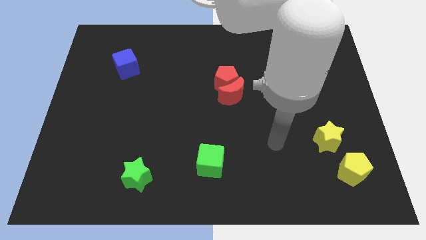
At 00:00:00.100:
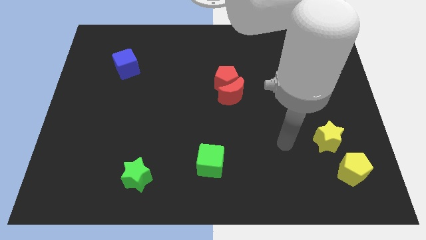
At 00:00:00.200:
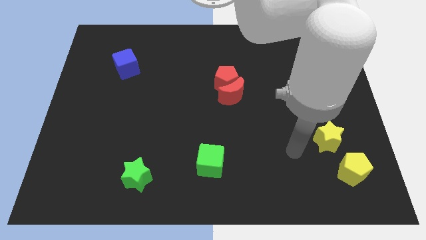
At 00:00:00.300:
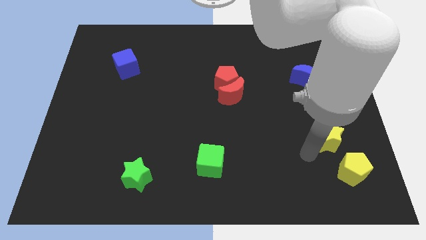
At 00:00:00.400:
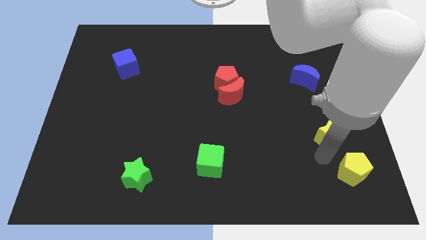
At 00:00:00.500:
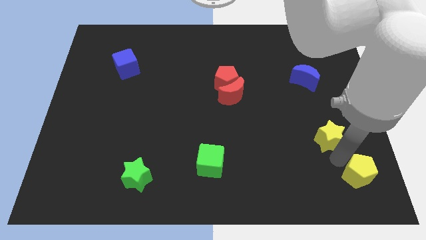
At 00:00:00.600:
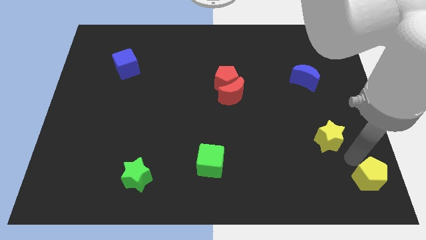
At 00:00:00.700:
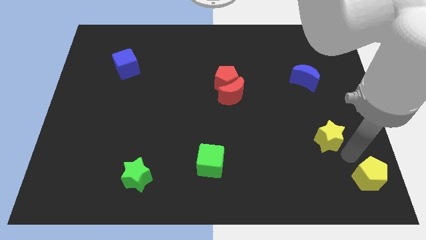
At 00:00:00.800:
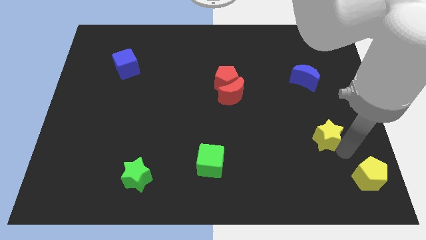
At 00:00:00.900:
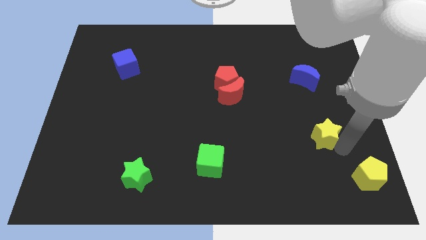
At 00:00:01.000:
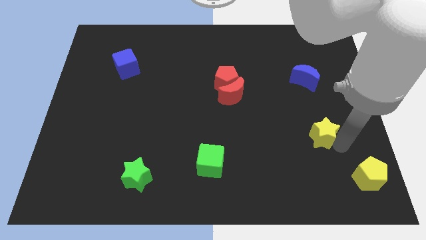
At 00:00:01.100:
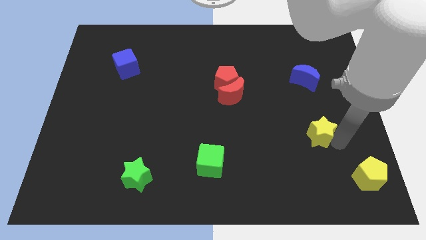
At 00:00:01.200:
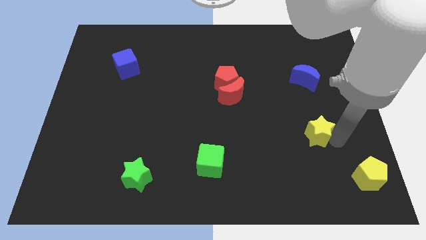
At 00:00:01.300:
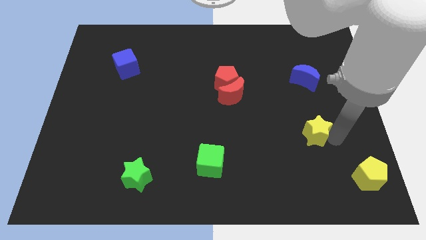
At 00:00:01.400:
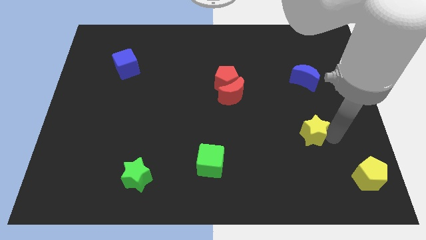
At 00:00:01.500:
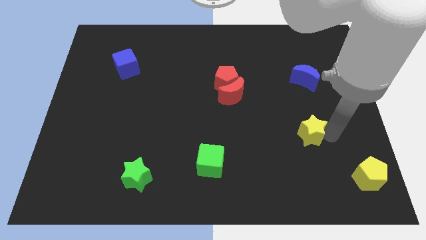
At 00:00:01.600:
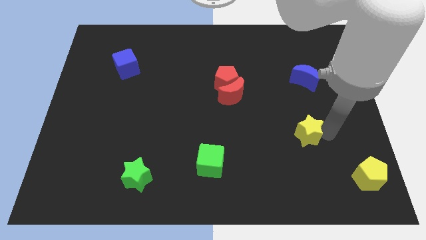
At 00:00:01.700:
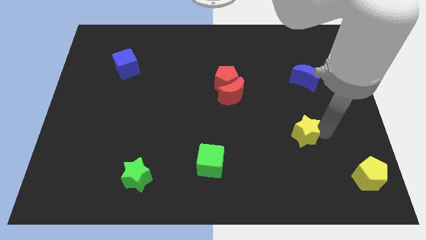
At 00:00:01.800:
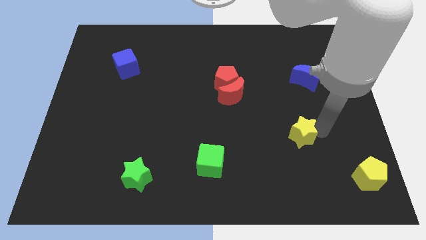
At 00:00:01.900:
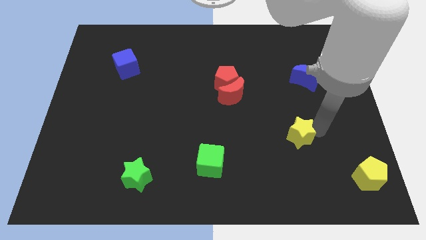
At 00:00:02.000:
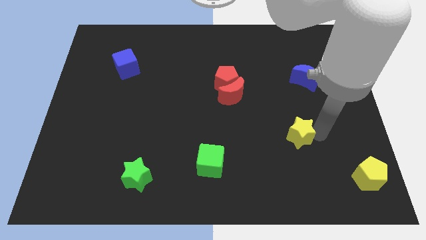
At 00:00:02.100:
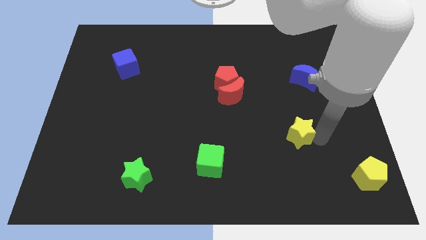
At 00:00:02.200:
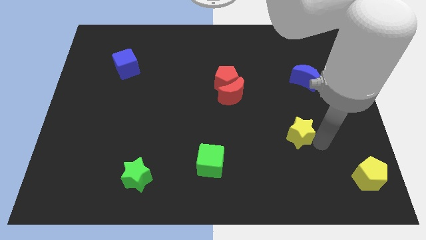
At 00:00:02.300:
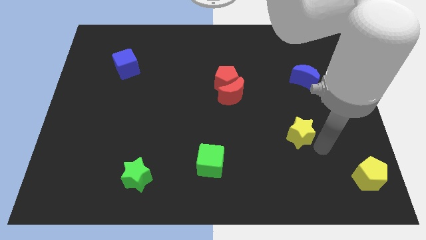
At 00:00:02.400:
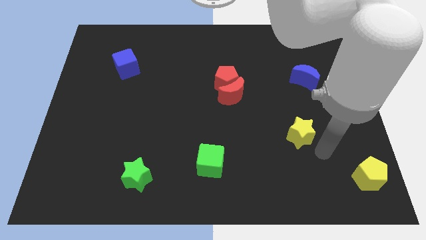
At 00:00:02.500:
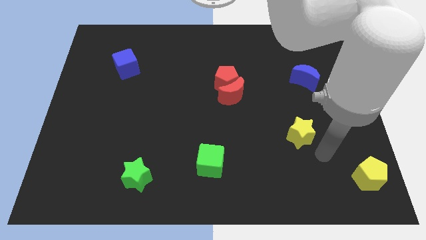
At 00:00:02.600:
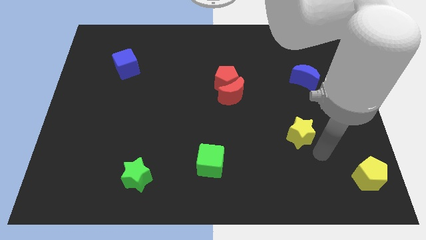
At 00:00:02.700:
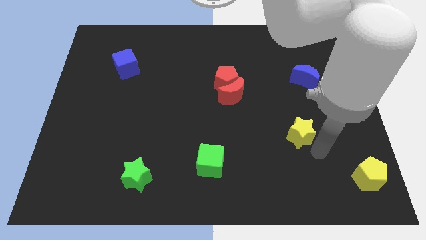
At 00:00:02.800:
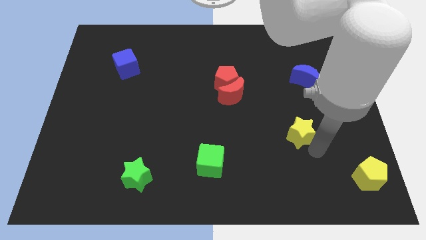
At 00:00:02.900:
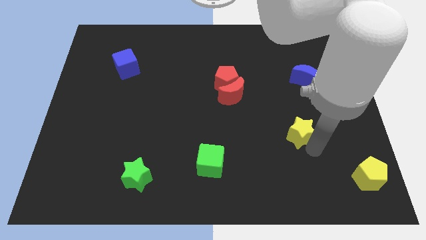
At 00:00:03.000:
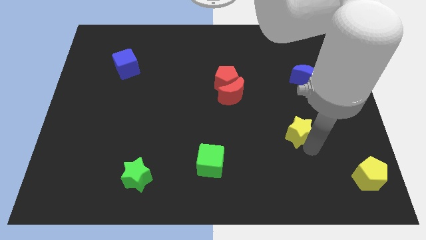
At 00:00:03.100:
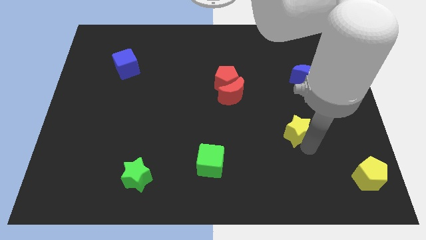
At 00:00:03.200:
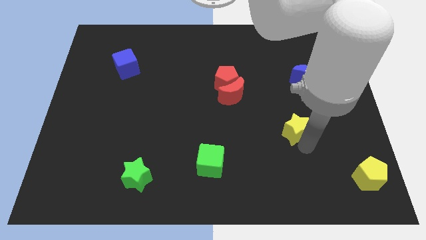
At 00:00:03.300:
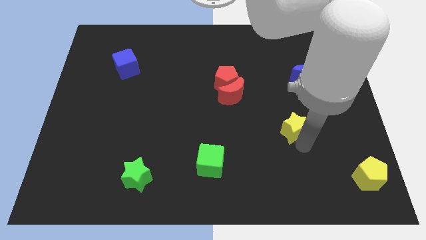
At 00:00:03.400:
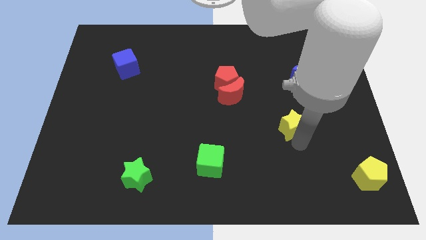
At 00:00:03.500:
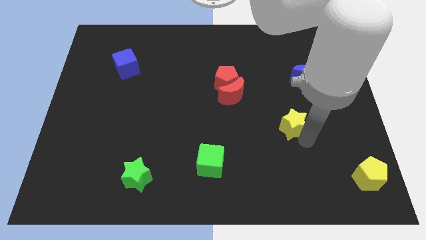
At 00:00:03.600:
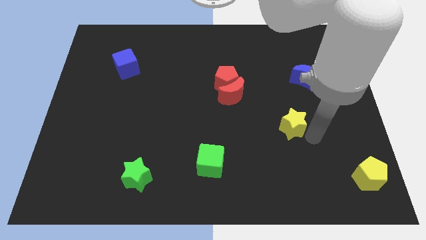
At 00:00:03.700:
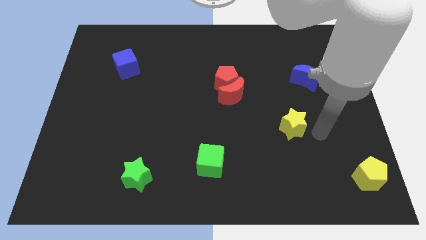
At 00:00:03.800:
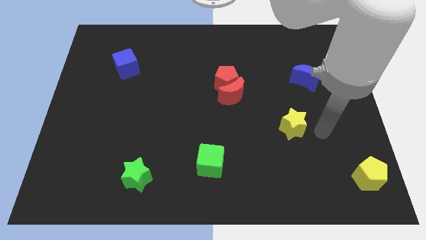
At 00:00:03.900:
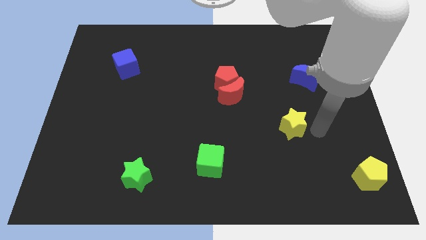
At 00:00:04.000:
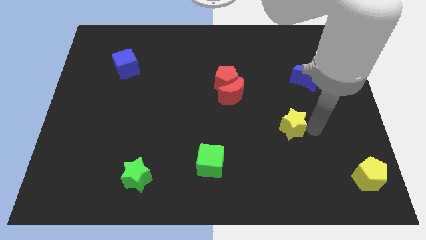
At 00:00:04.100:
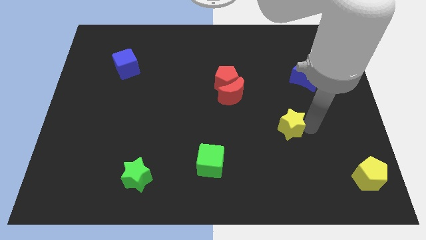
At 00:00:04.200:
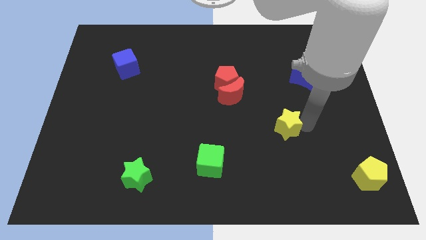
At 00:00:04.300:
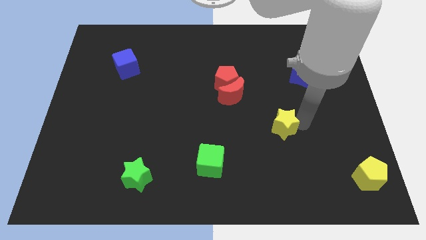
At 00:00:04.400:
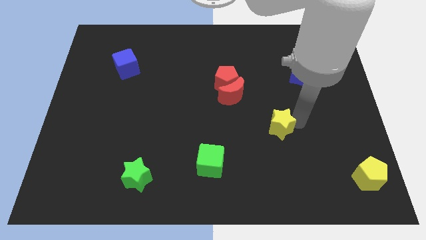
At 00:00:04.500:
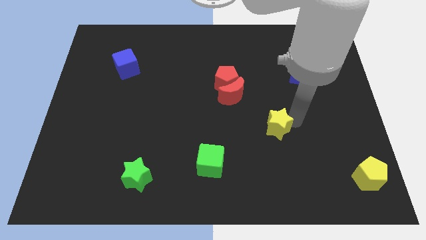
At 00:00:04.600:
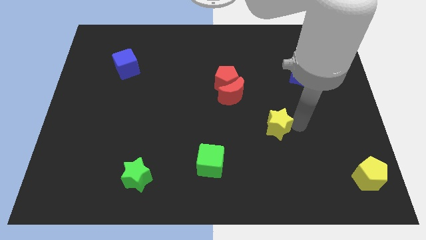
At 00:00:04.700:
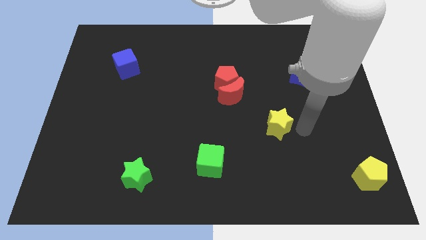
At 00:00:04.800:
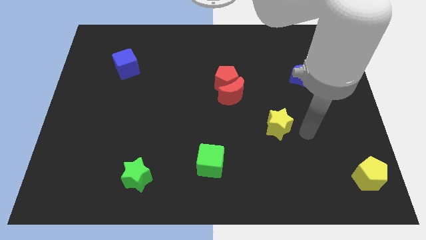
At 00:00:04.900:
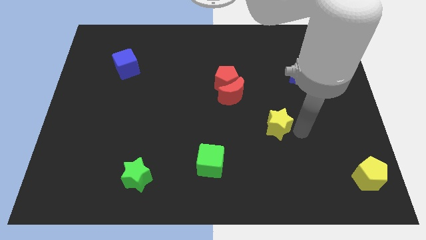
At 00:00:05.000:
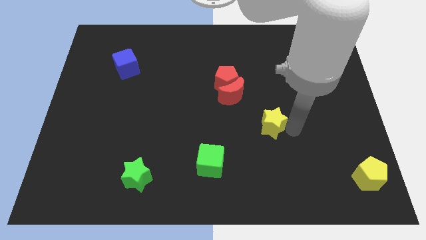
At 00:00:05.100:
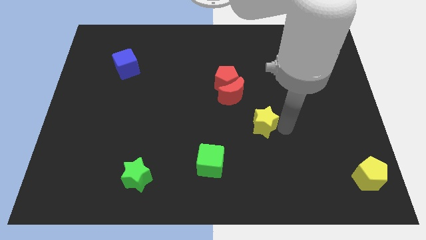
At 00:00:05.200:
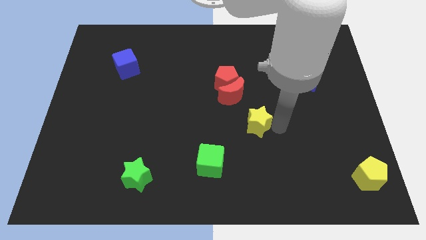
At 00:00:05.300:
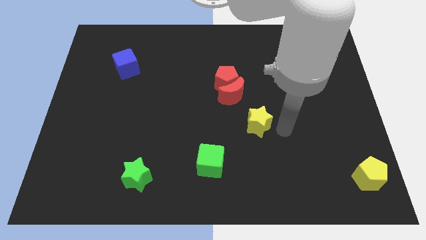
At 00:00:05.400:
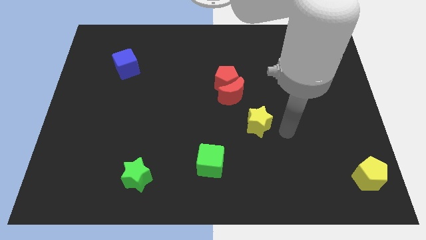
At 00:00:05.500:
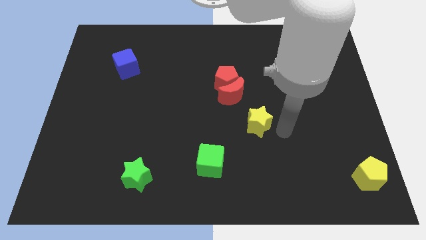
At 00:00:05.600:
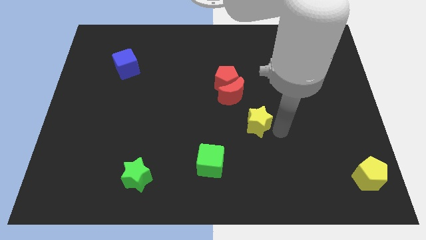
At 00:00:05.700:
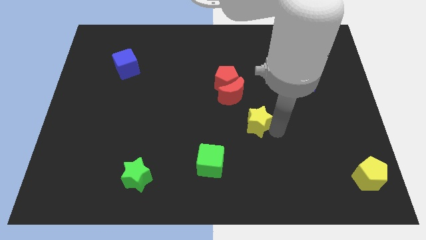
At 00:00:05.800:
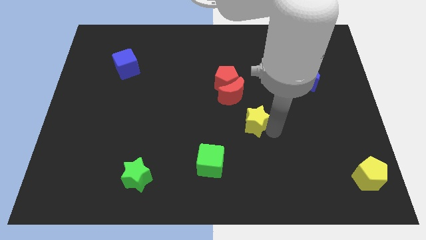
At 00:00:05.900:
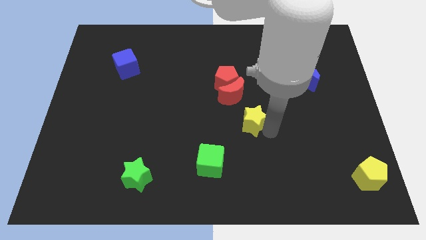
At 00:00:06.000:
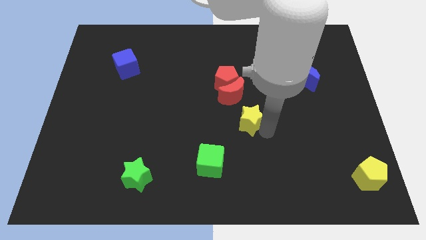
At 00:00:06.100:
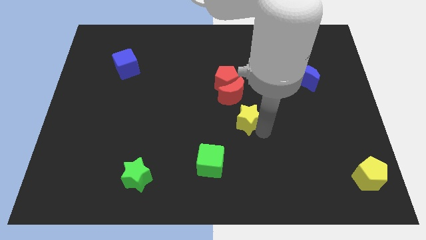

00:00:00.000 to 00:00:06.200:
move the yellow star below the red pentagon

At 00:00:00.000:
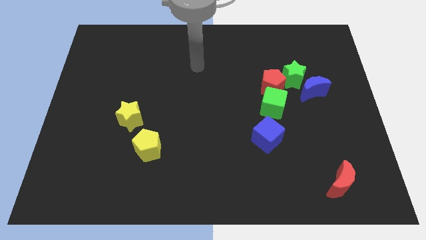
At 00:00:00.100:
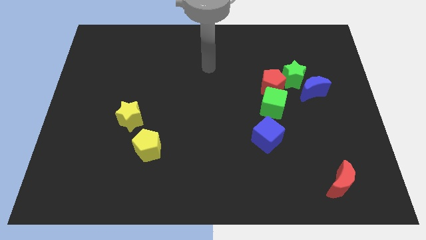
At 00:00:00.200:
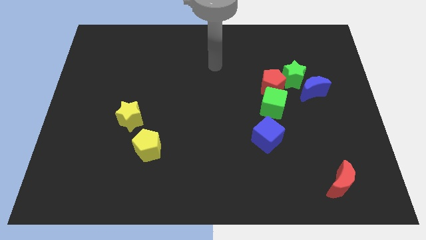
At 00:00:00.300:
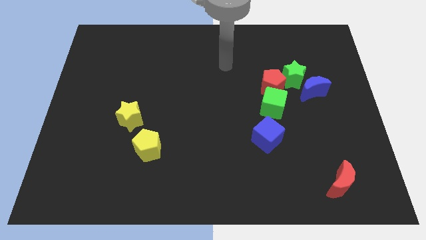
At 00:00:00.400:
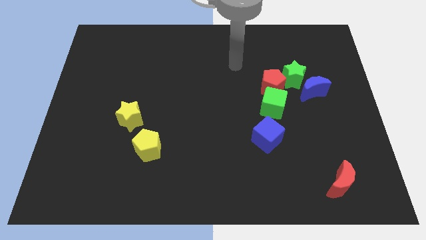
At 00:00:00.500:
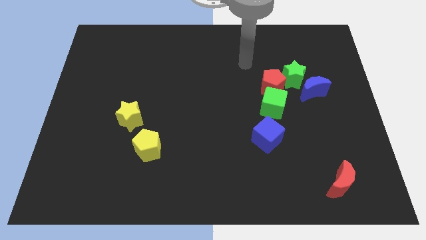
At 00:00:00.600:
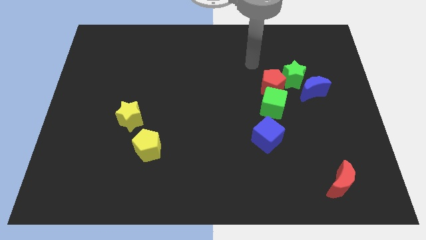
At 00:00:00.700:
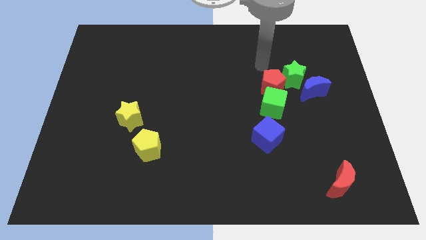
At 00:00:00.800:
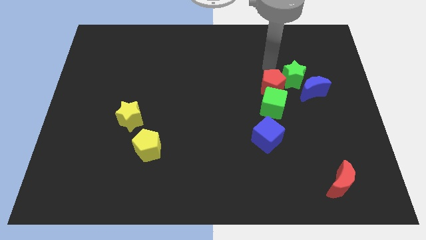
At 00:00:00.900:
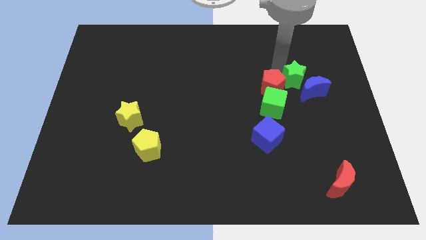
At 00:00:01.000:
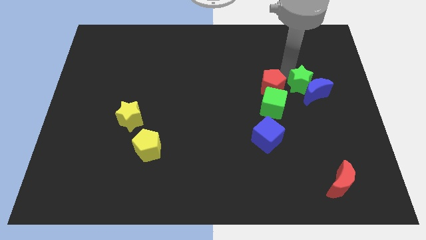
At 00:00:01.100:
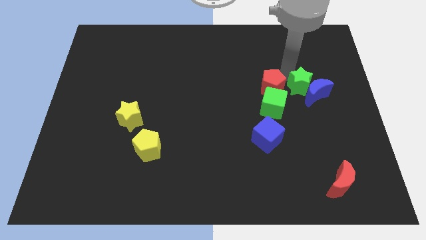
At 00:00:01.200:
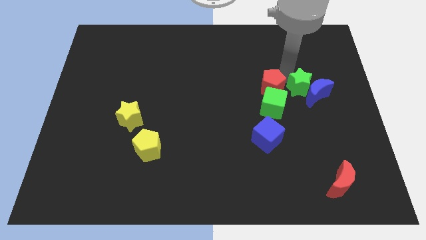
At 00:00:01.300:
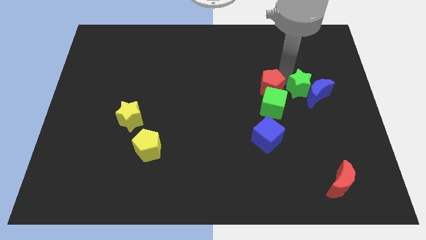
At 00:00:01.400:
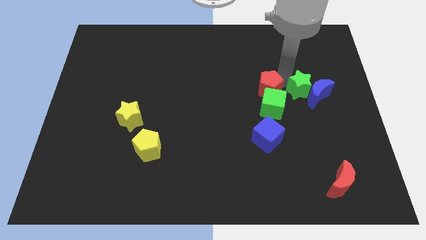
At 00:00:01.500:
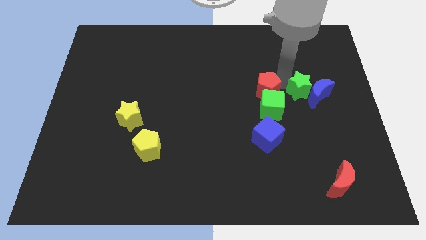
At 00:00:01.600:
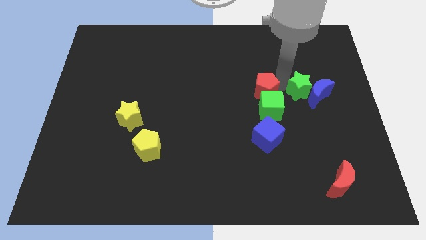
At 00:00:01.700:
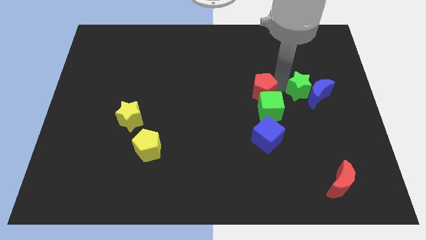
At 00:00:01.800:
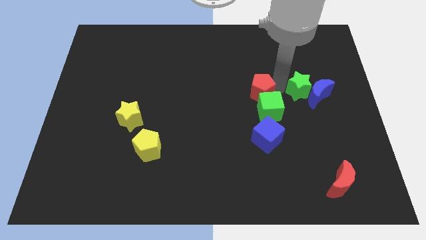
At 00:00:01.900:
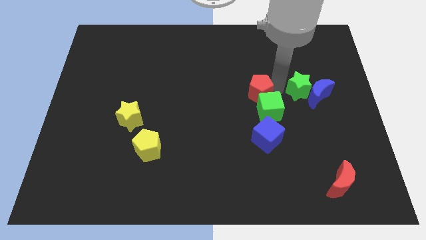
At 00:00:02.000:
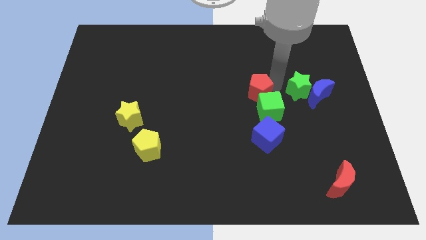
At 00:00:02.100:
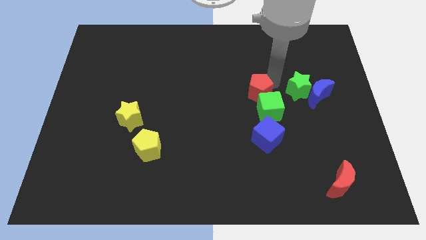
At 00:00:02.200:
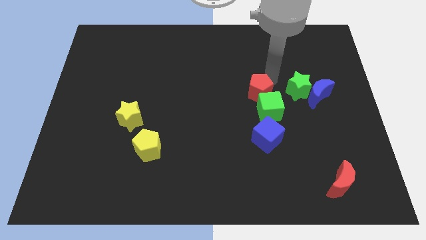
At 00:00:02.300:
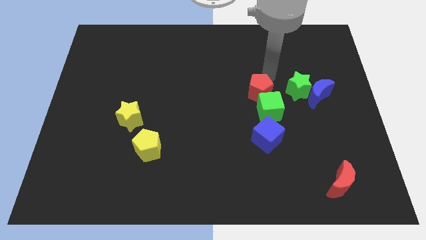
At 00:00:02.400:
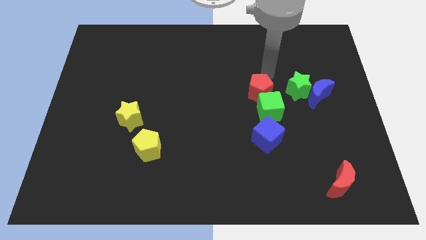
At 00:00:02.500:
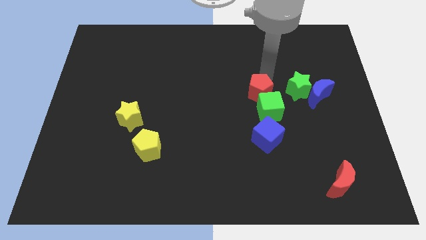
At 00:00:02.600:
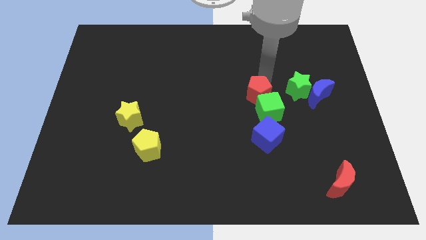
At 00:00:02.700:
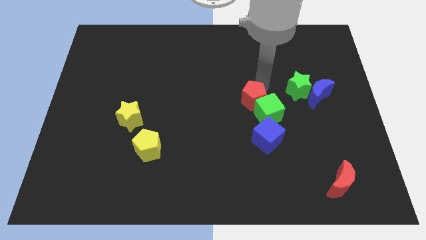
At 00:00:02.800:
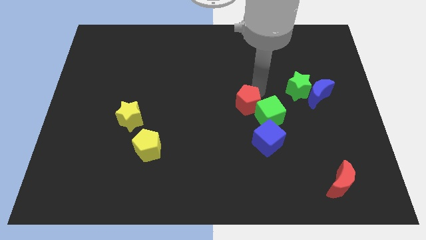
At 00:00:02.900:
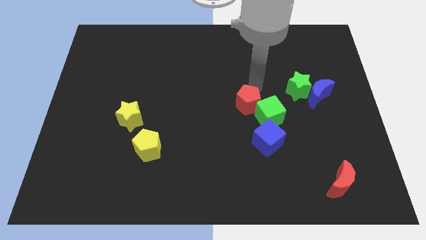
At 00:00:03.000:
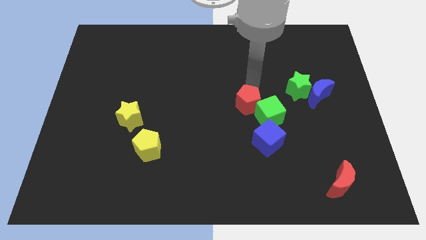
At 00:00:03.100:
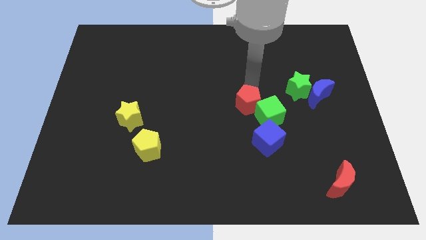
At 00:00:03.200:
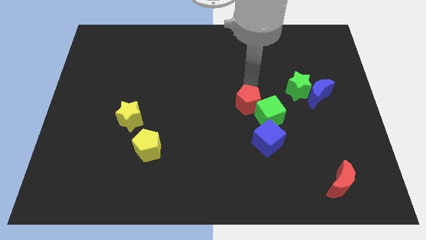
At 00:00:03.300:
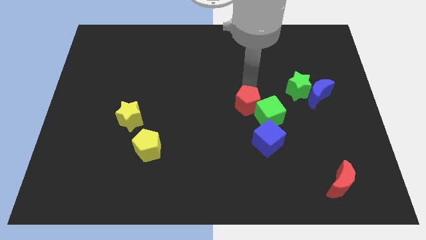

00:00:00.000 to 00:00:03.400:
slide the red pentagon to the top left of the blue cube
